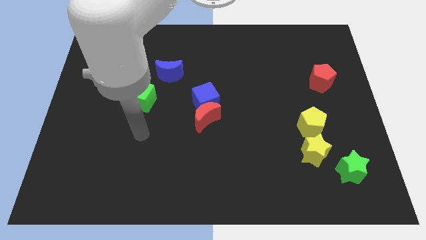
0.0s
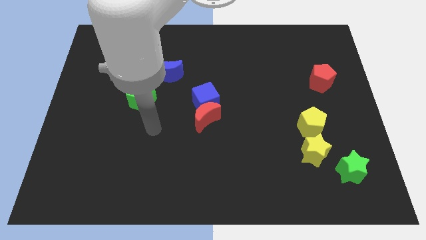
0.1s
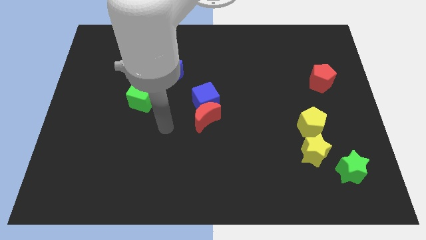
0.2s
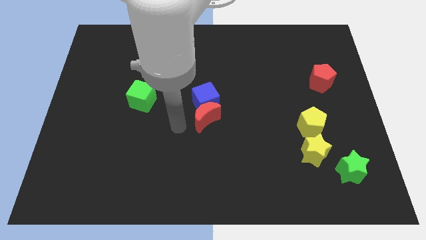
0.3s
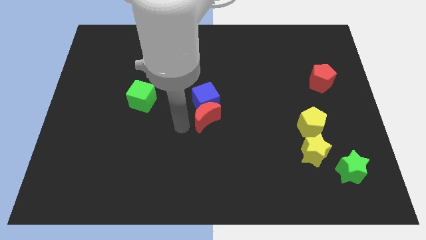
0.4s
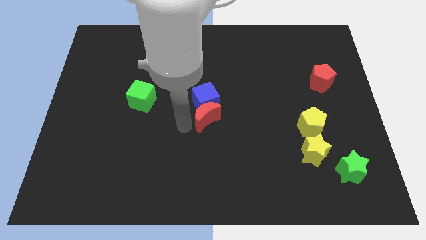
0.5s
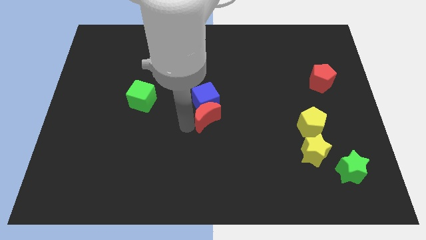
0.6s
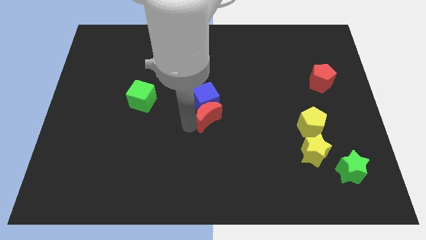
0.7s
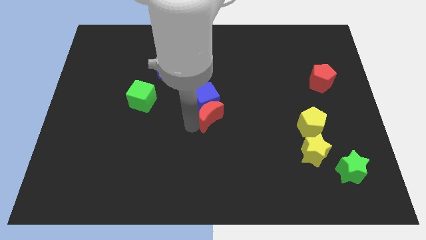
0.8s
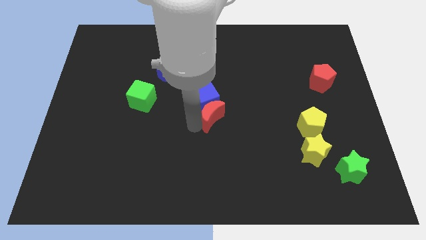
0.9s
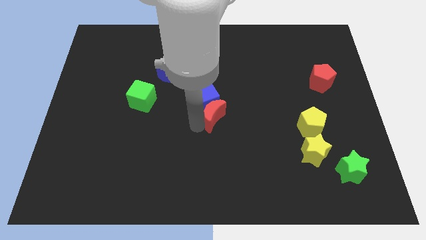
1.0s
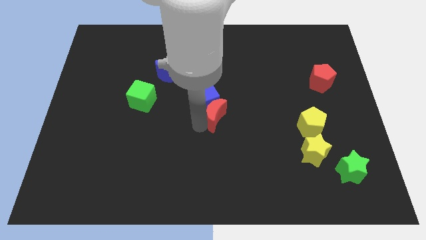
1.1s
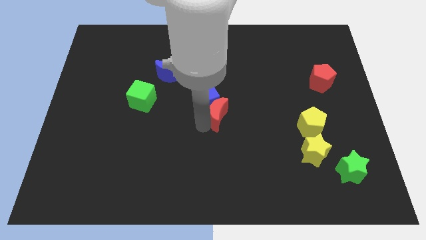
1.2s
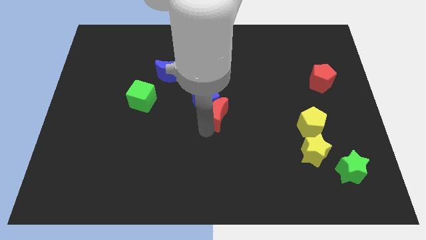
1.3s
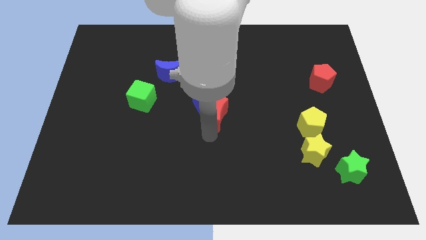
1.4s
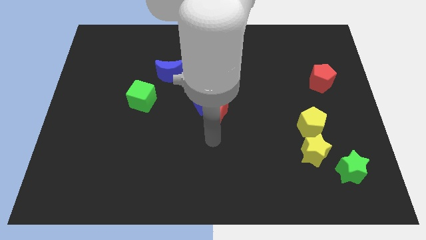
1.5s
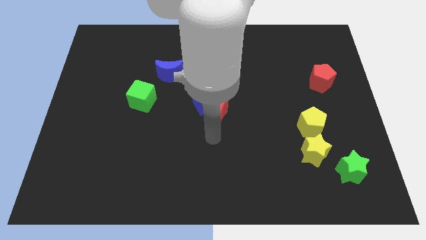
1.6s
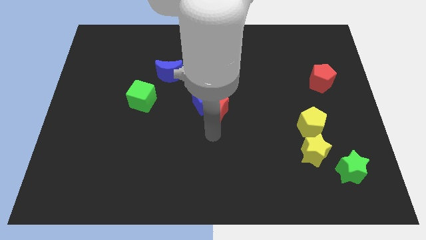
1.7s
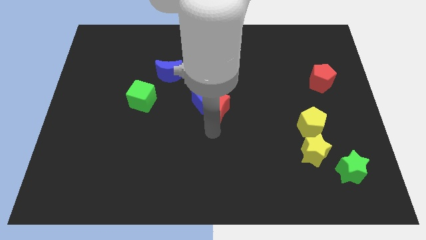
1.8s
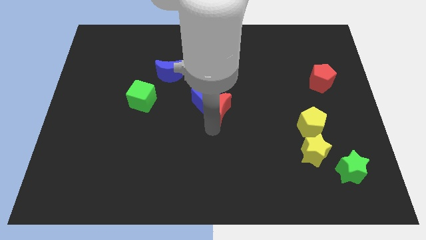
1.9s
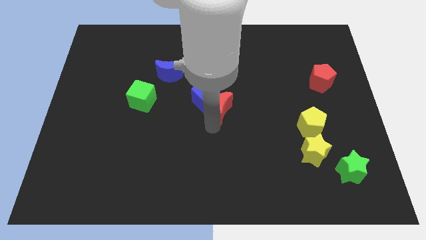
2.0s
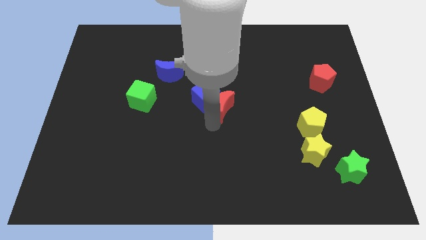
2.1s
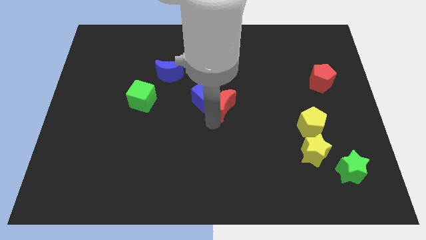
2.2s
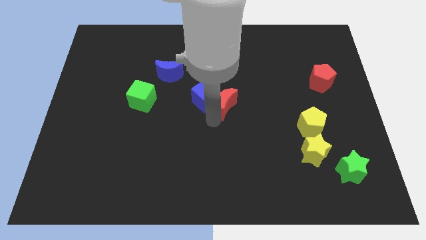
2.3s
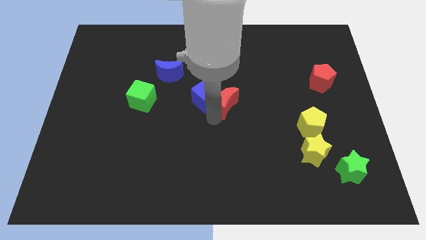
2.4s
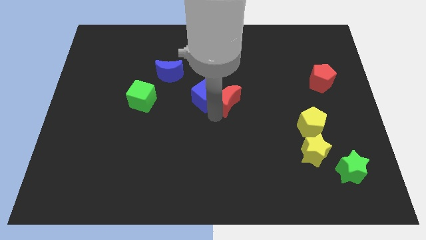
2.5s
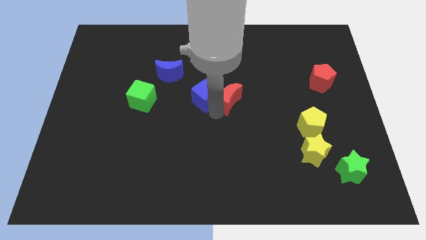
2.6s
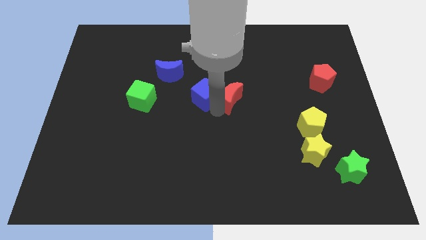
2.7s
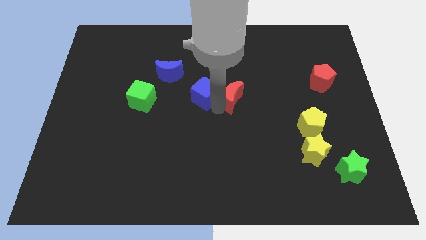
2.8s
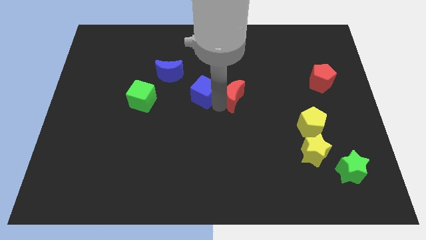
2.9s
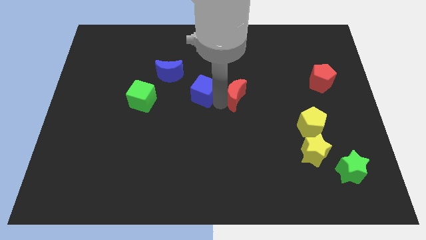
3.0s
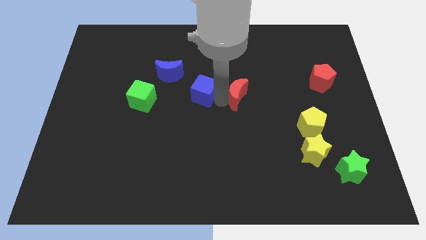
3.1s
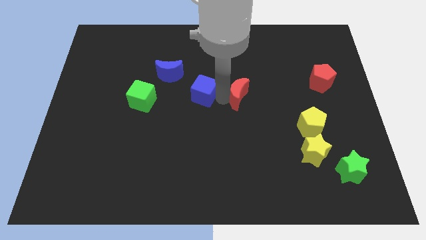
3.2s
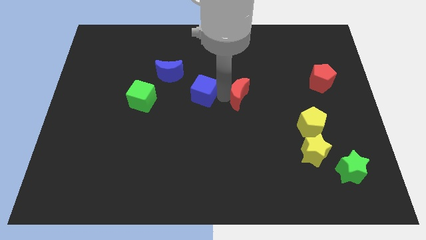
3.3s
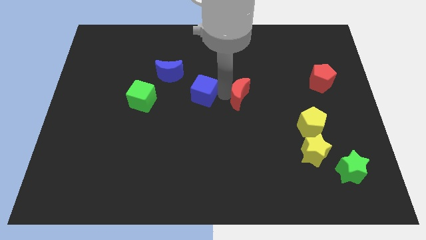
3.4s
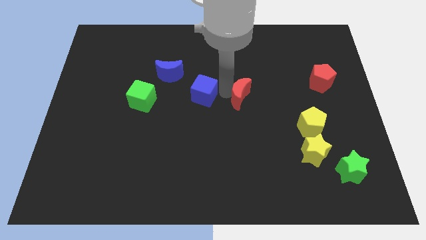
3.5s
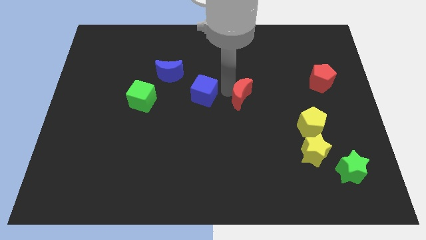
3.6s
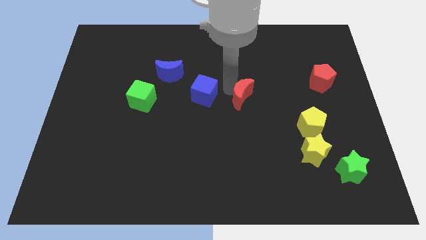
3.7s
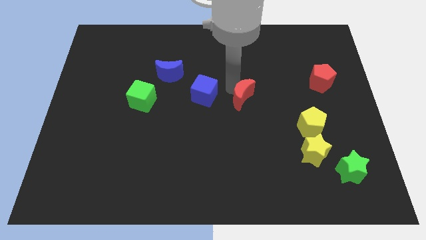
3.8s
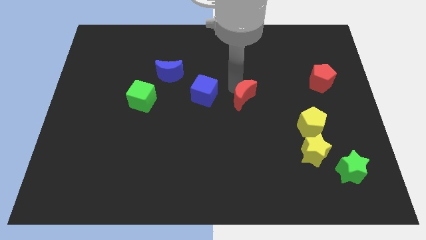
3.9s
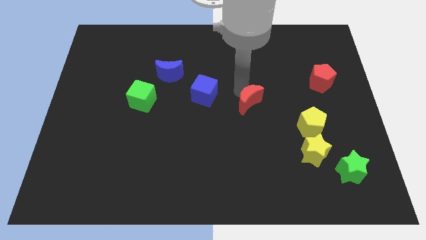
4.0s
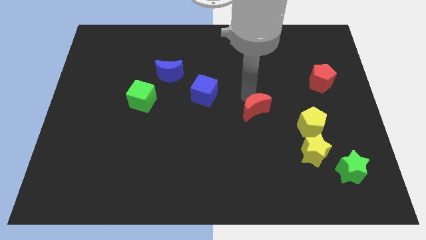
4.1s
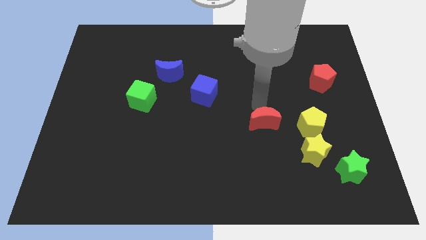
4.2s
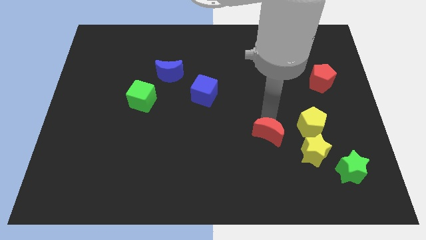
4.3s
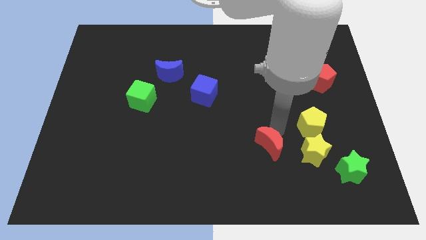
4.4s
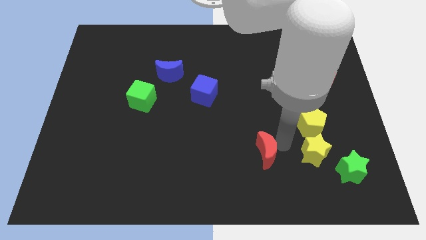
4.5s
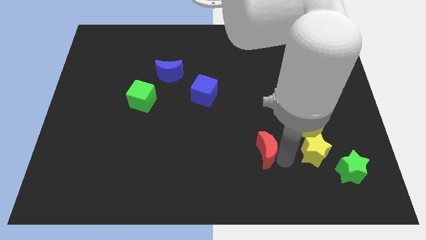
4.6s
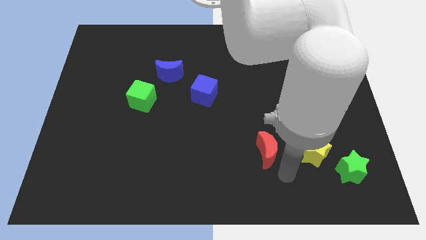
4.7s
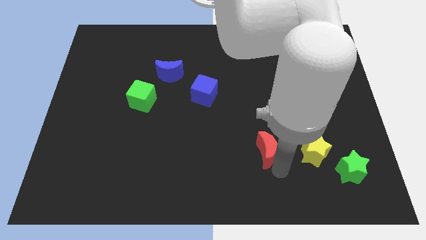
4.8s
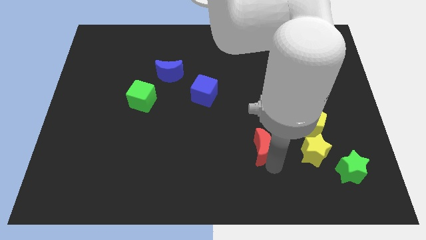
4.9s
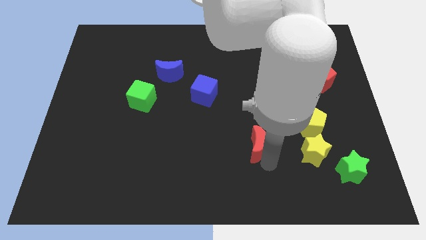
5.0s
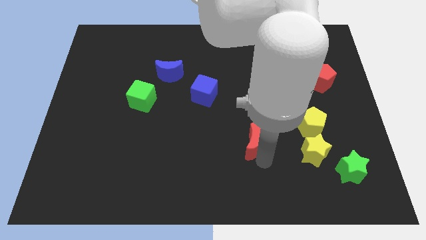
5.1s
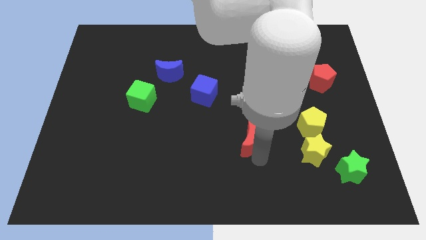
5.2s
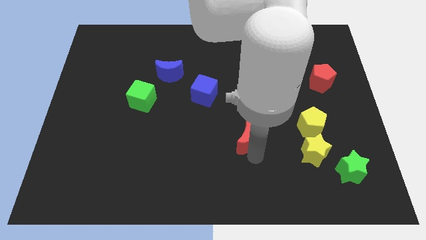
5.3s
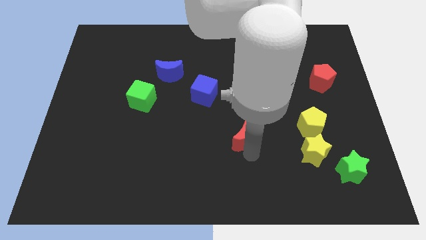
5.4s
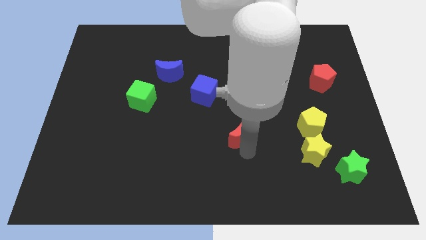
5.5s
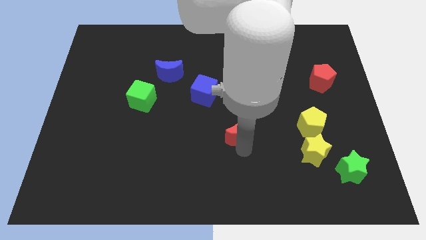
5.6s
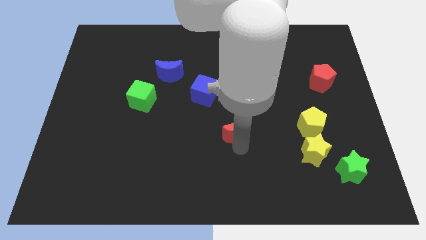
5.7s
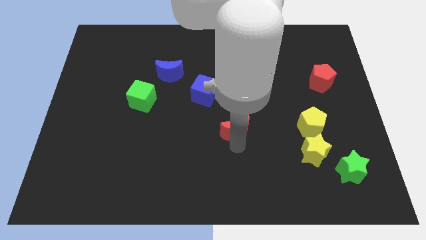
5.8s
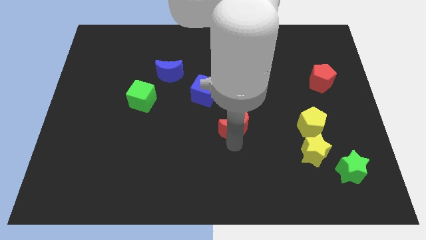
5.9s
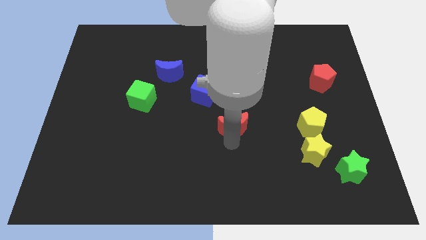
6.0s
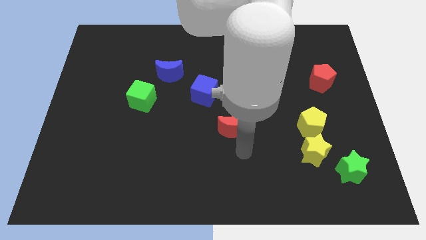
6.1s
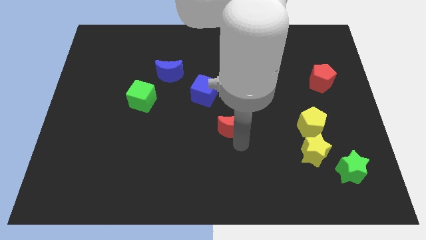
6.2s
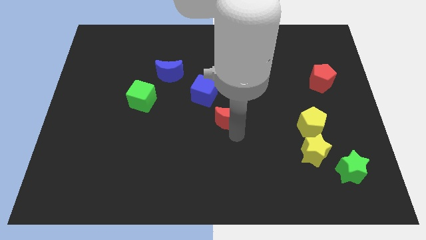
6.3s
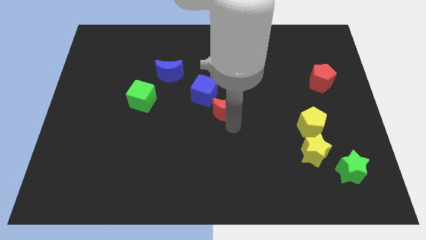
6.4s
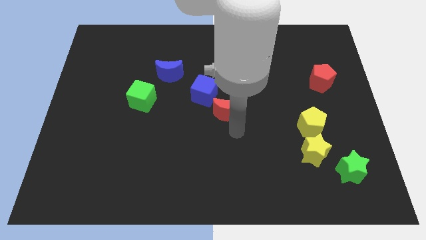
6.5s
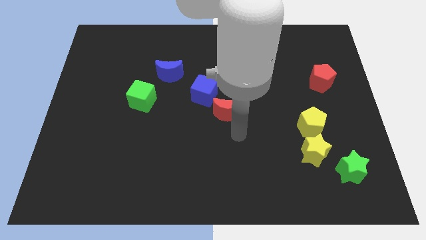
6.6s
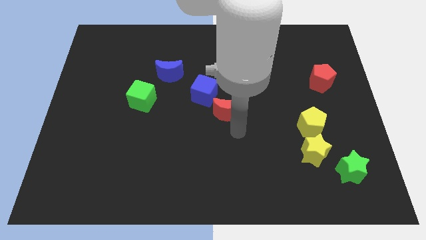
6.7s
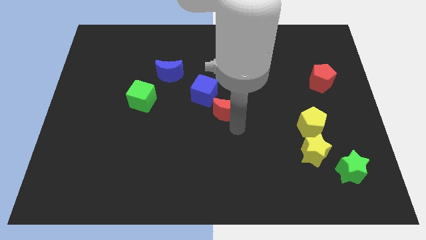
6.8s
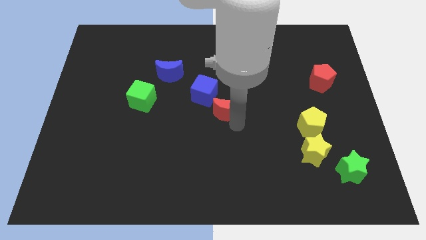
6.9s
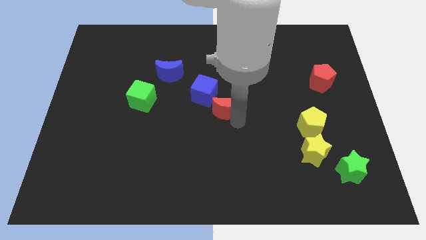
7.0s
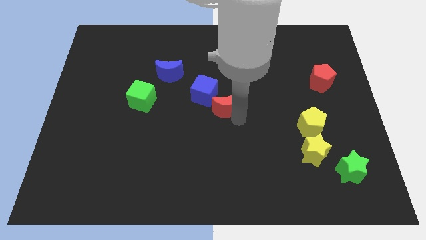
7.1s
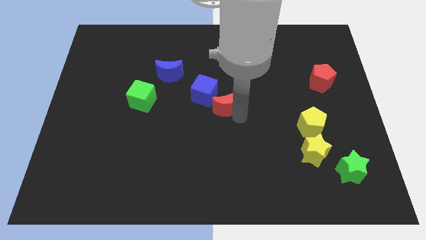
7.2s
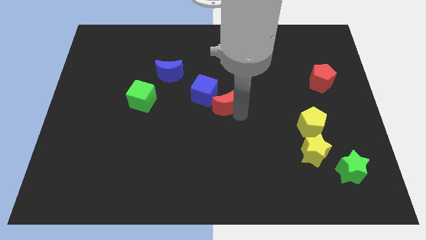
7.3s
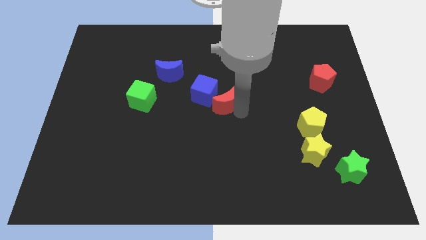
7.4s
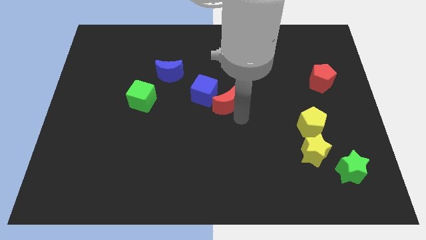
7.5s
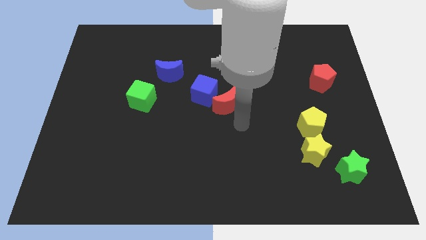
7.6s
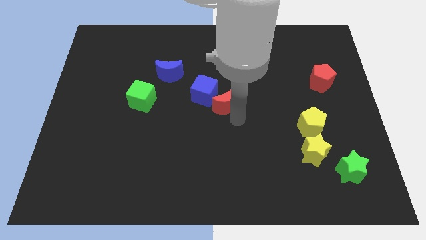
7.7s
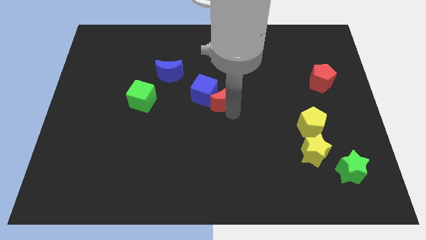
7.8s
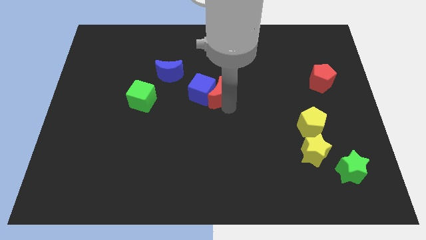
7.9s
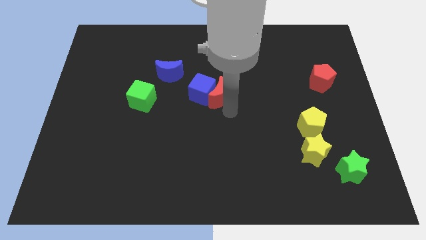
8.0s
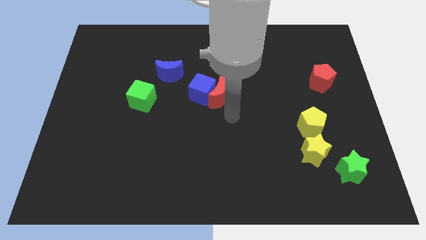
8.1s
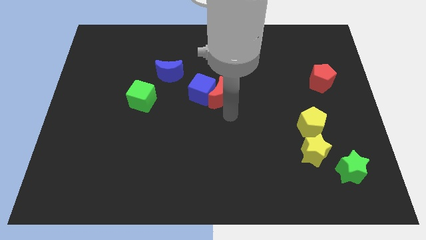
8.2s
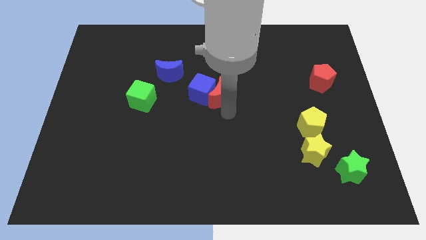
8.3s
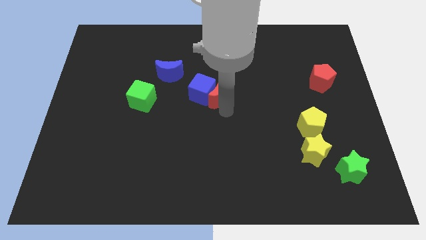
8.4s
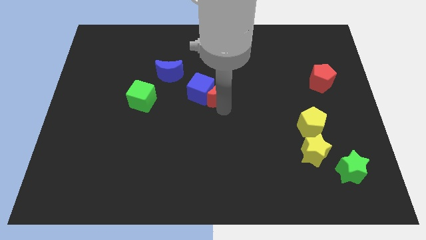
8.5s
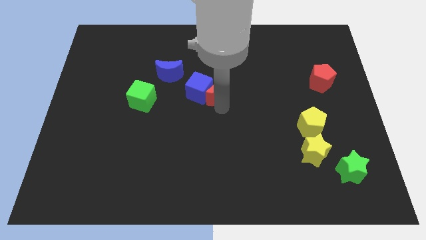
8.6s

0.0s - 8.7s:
slide the red moon up slightly
